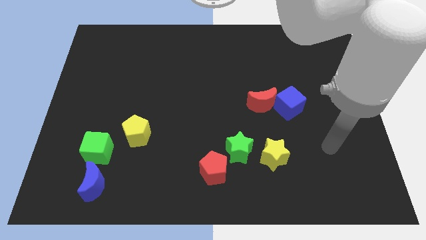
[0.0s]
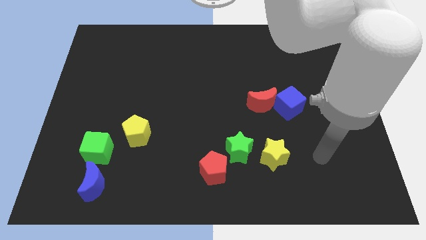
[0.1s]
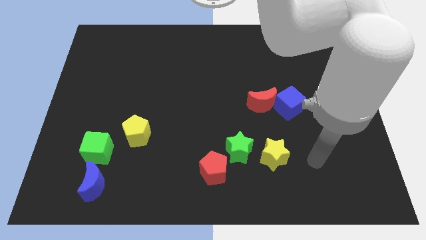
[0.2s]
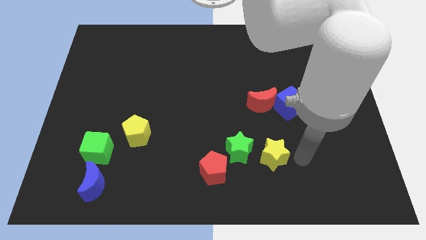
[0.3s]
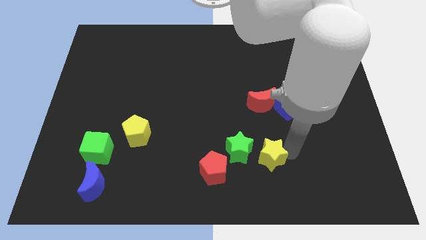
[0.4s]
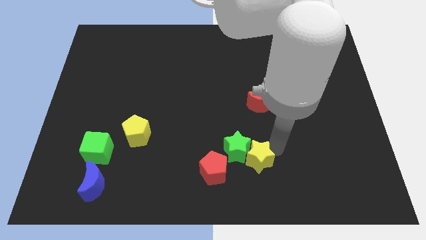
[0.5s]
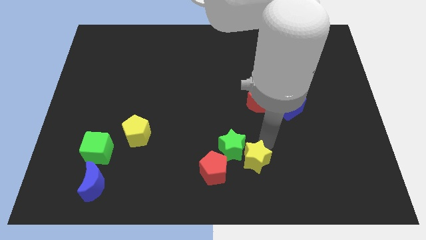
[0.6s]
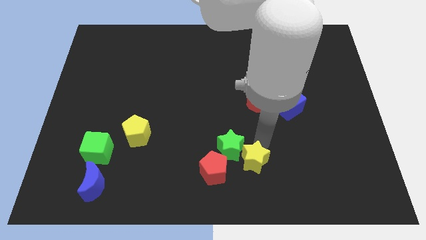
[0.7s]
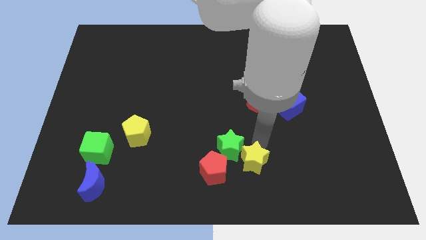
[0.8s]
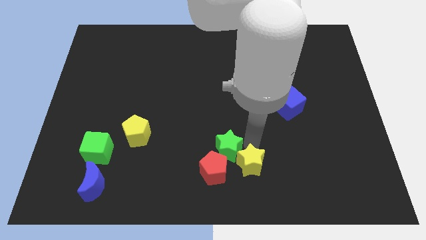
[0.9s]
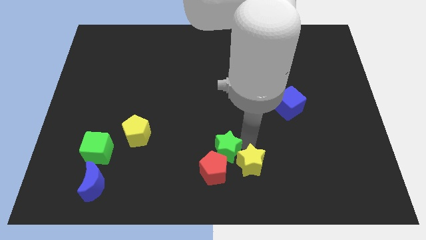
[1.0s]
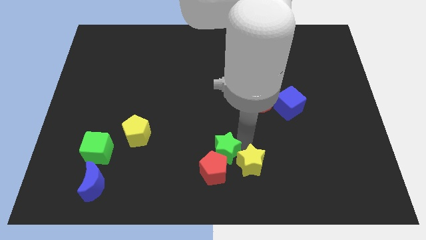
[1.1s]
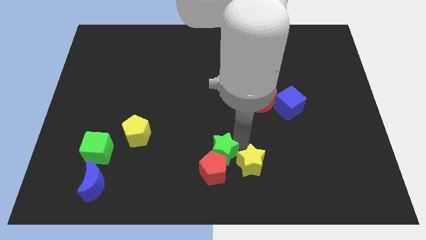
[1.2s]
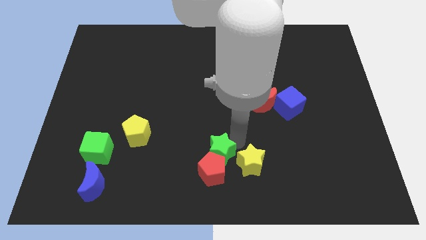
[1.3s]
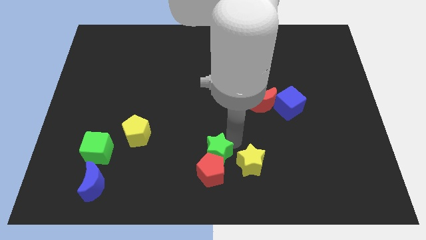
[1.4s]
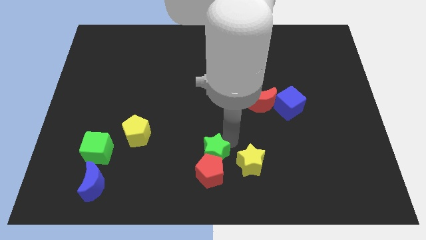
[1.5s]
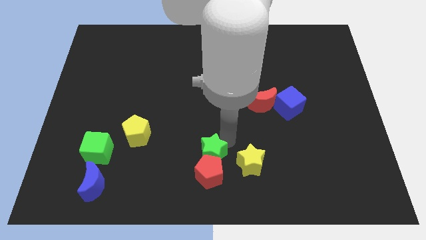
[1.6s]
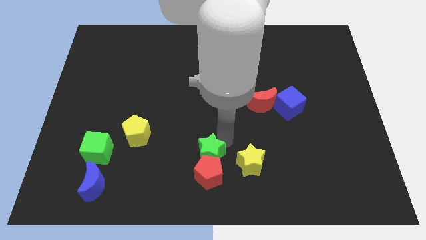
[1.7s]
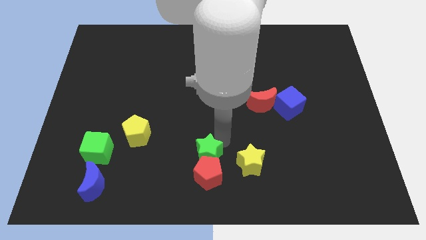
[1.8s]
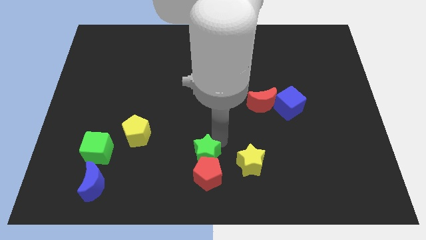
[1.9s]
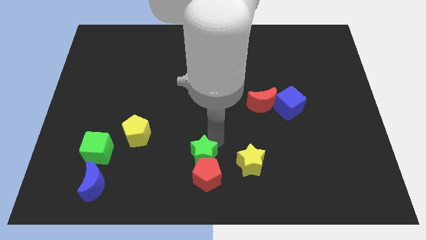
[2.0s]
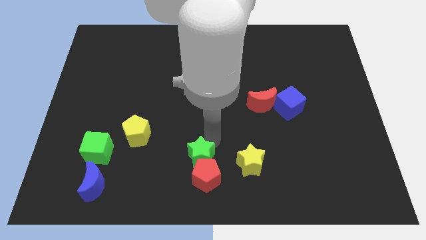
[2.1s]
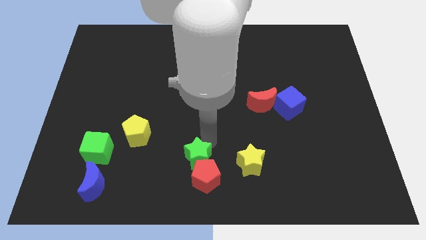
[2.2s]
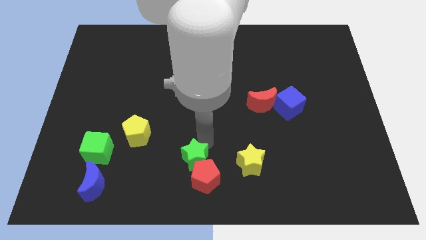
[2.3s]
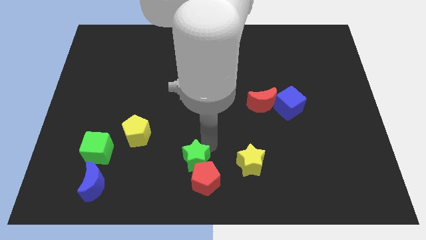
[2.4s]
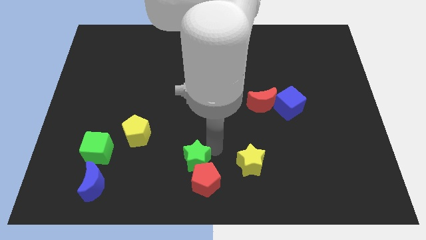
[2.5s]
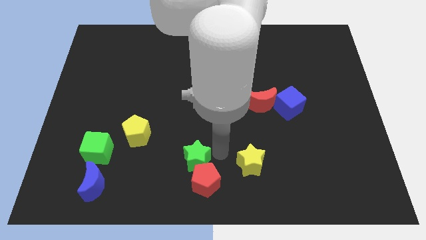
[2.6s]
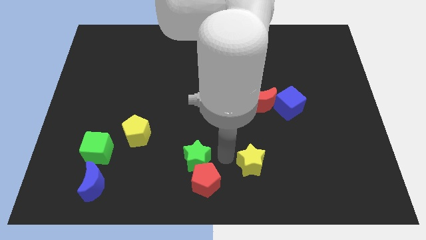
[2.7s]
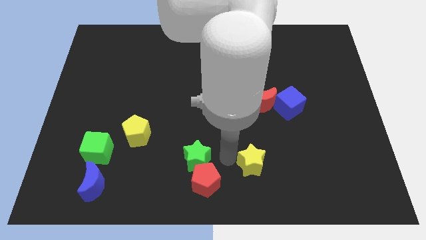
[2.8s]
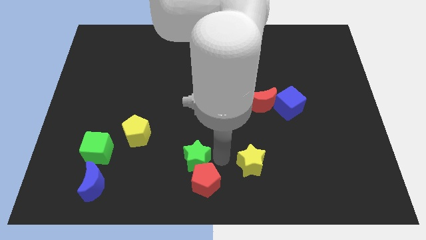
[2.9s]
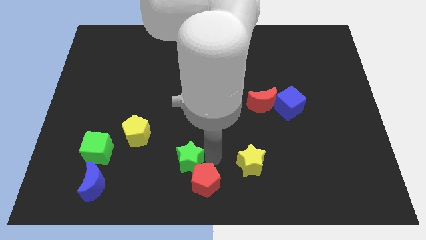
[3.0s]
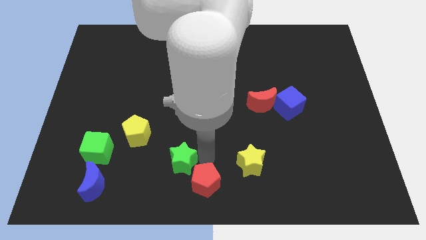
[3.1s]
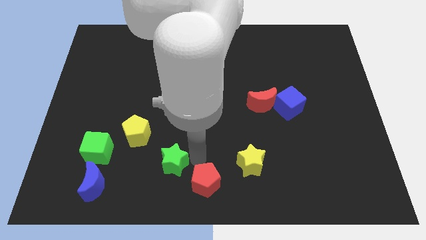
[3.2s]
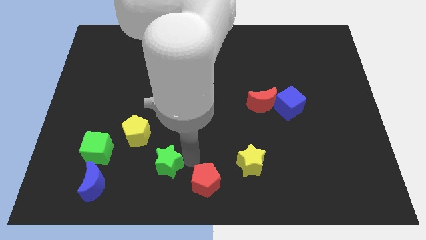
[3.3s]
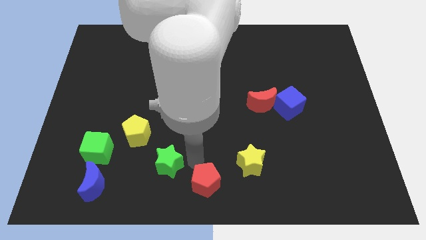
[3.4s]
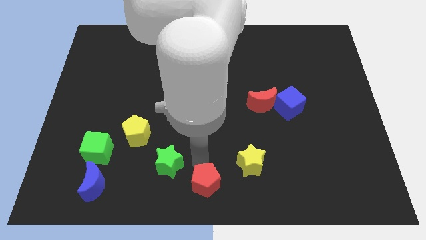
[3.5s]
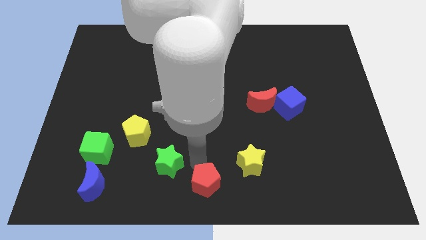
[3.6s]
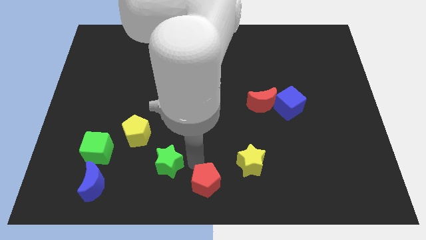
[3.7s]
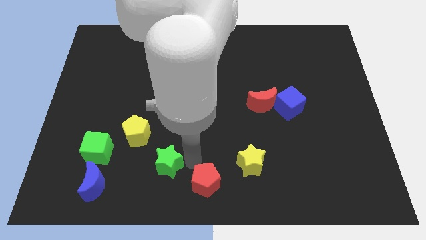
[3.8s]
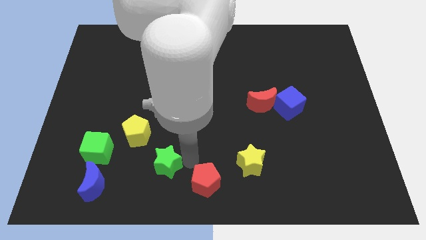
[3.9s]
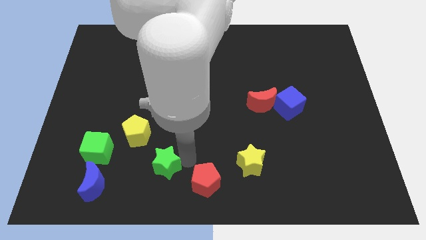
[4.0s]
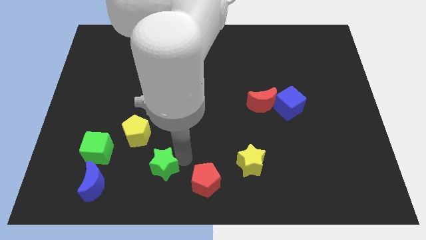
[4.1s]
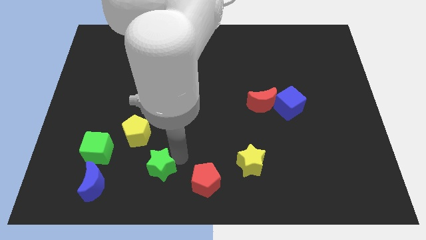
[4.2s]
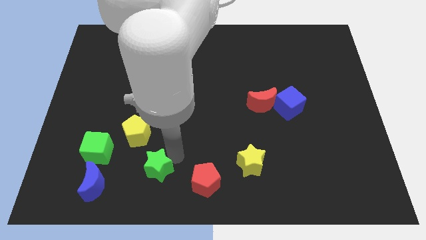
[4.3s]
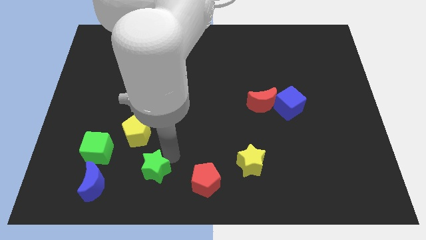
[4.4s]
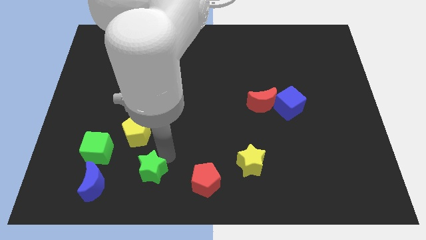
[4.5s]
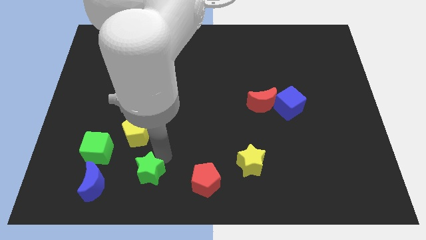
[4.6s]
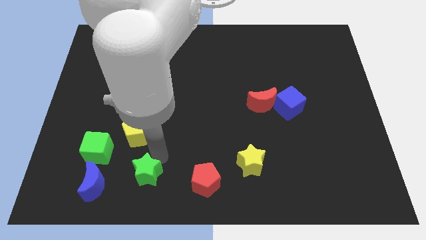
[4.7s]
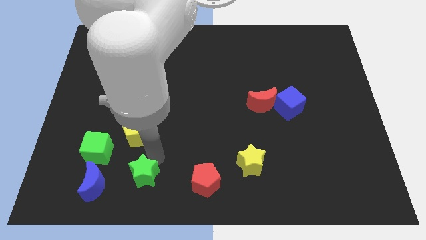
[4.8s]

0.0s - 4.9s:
move the green star diagonally down and to the right of the green cube

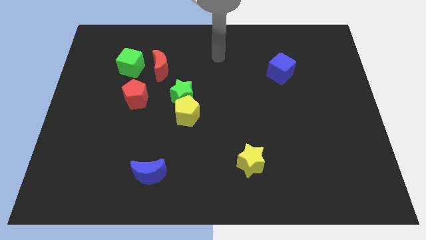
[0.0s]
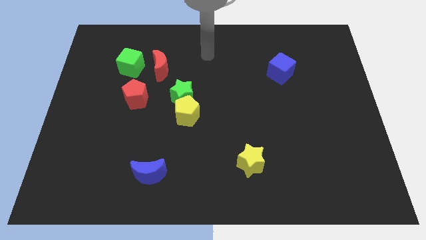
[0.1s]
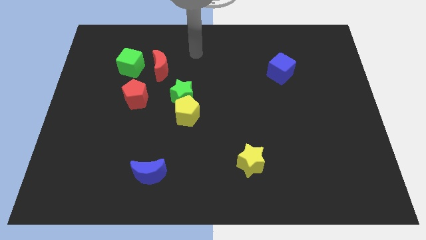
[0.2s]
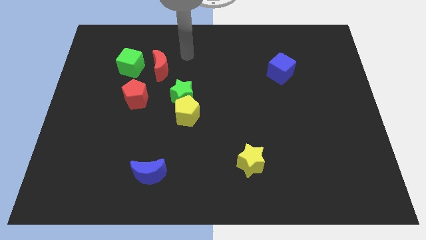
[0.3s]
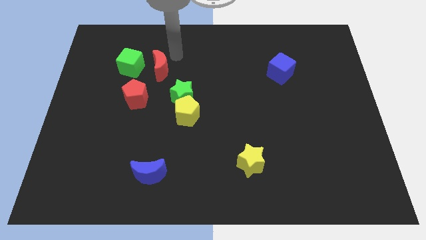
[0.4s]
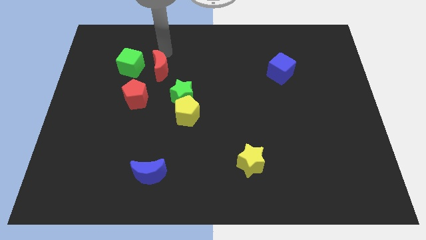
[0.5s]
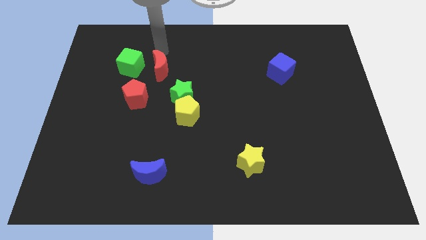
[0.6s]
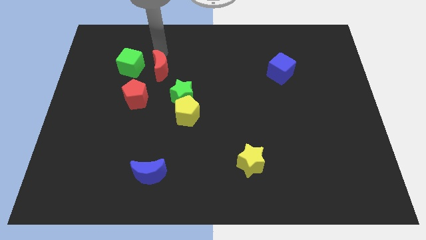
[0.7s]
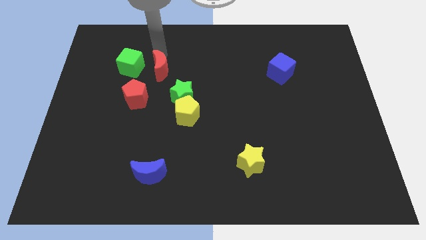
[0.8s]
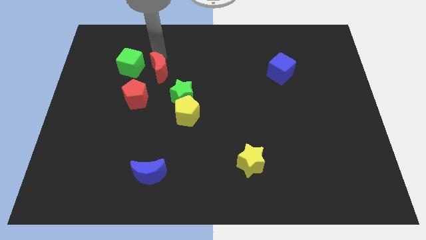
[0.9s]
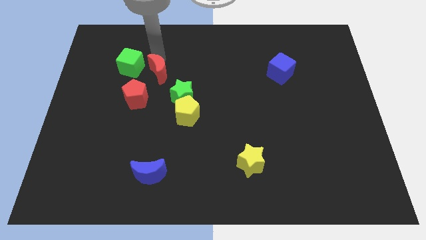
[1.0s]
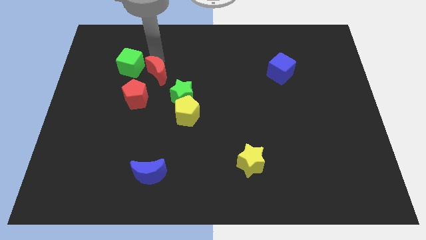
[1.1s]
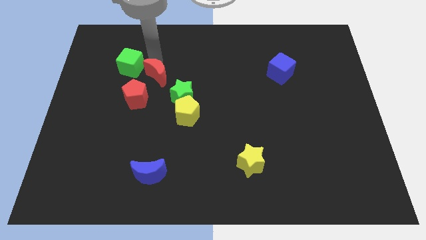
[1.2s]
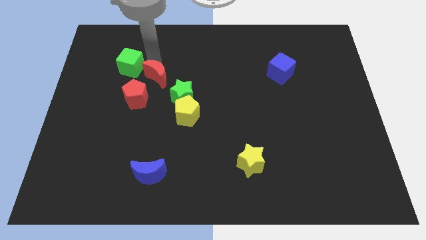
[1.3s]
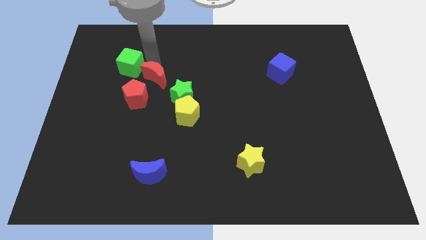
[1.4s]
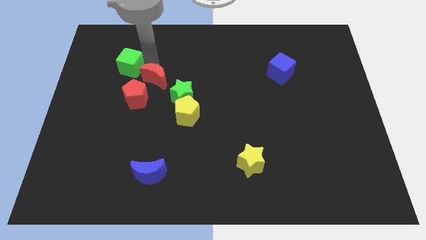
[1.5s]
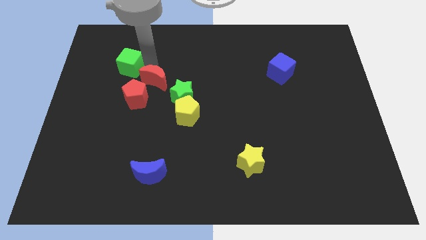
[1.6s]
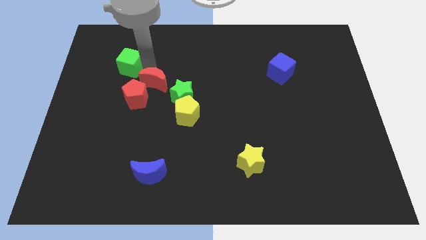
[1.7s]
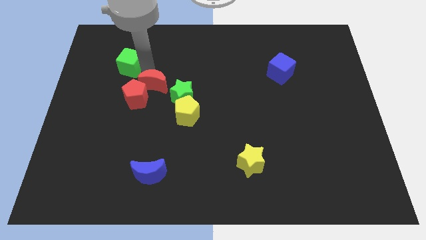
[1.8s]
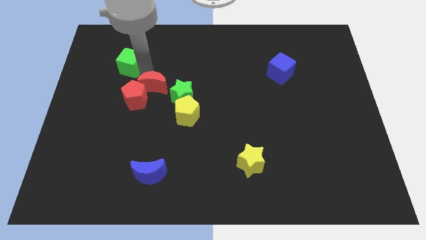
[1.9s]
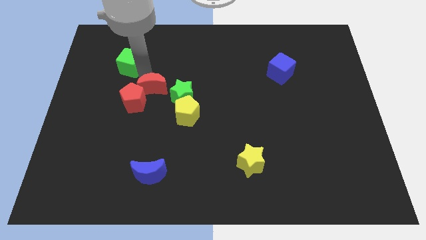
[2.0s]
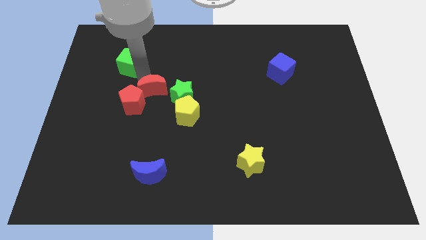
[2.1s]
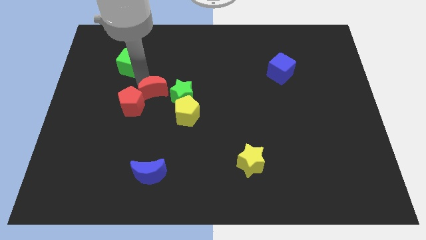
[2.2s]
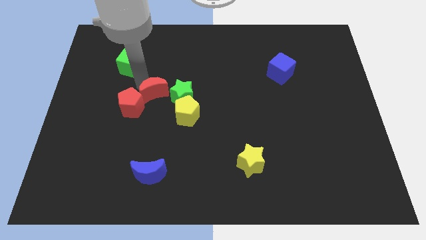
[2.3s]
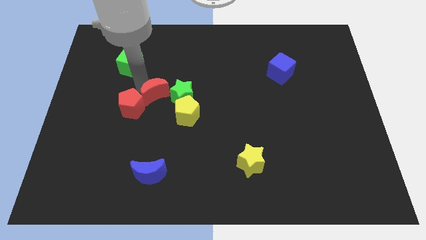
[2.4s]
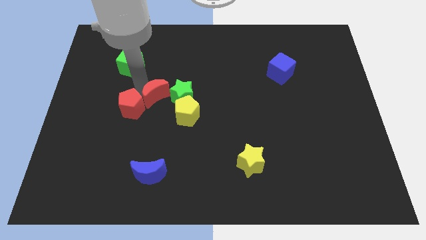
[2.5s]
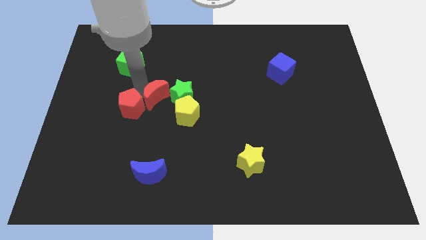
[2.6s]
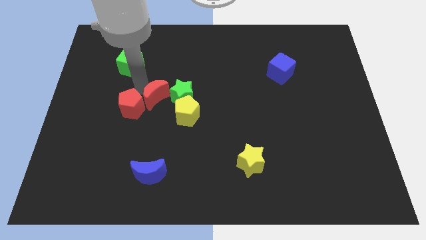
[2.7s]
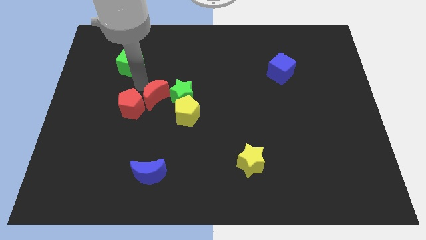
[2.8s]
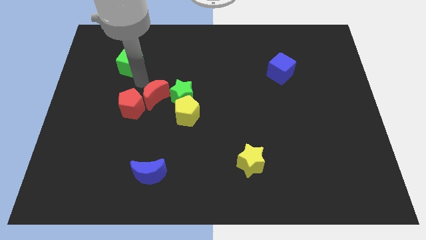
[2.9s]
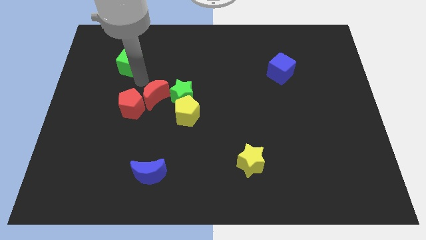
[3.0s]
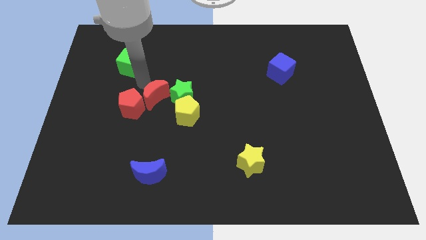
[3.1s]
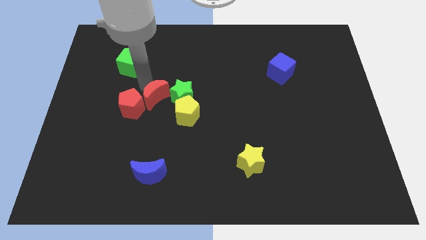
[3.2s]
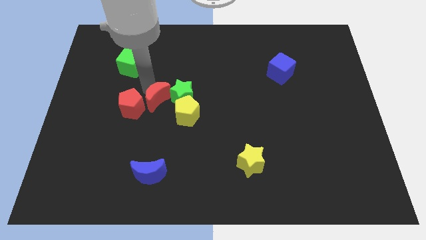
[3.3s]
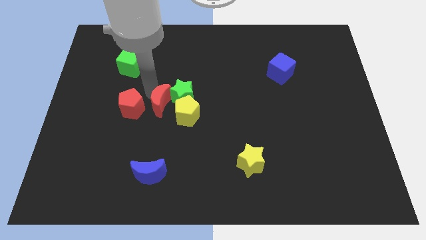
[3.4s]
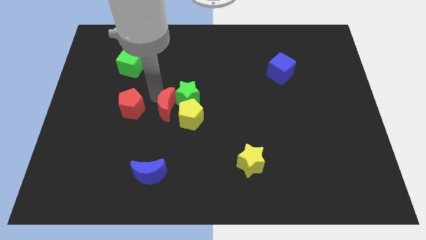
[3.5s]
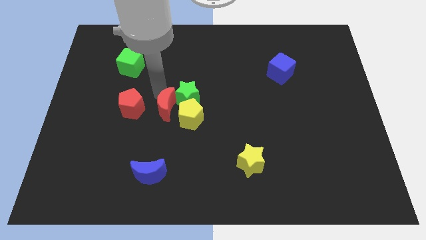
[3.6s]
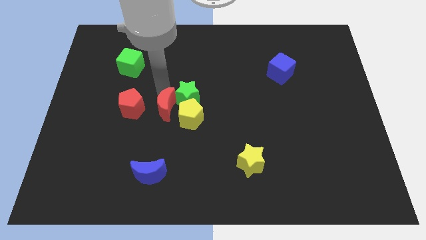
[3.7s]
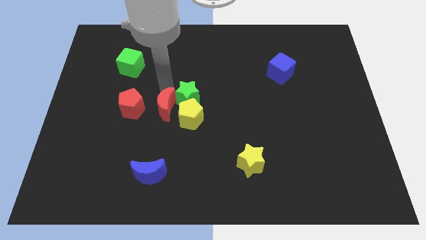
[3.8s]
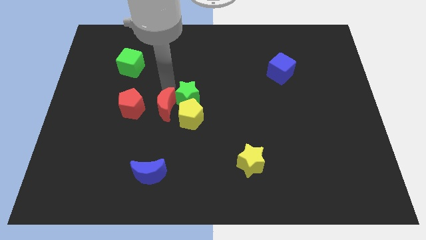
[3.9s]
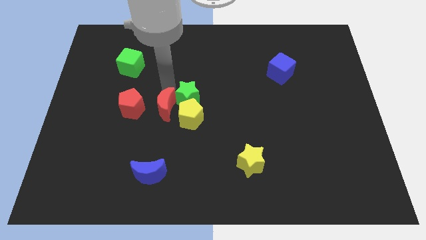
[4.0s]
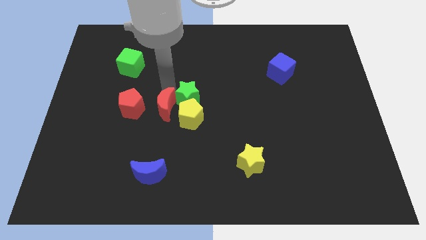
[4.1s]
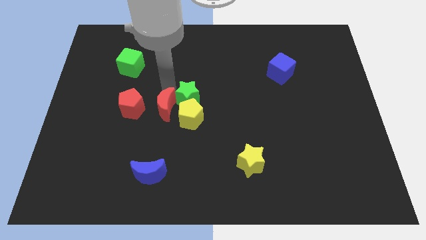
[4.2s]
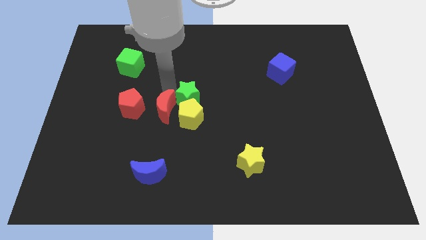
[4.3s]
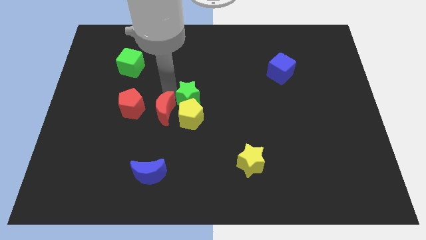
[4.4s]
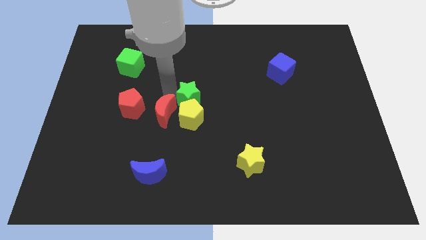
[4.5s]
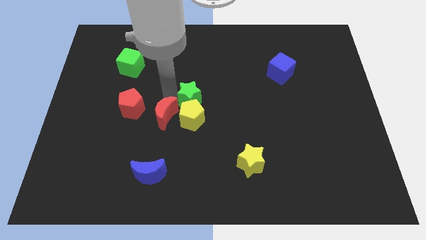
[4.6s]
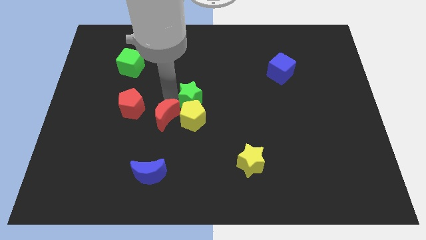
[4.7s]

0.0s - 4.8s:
push the red moon diagonally down and to the left of the yellow pentagon
